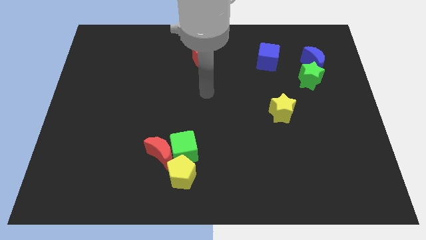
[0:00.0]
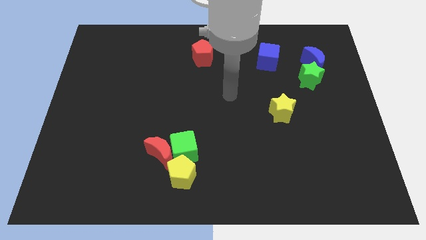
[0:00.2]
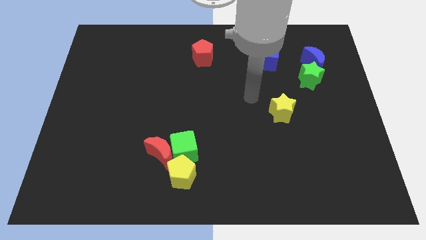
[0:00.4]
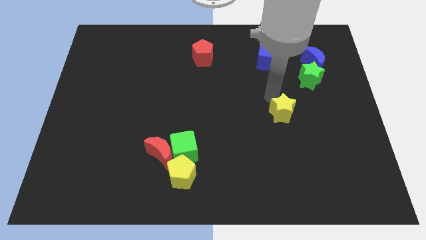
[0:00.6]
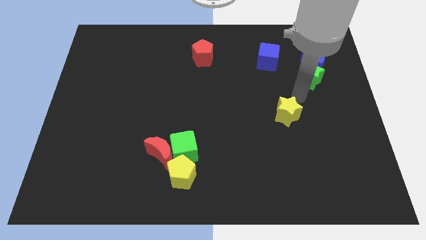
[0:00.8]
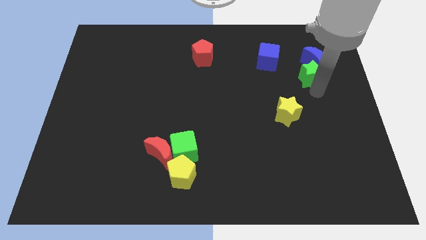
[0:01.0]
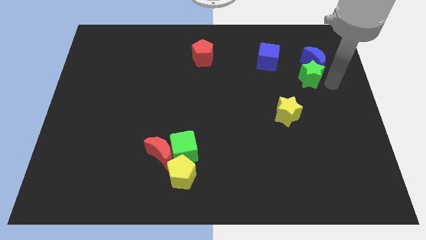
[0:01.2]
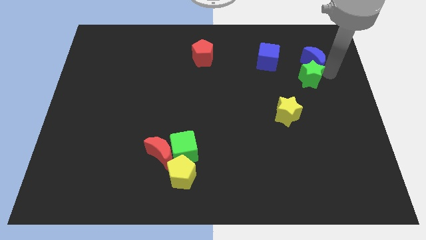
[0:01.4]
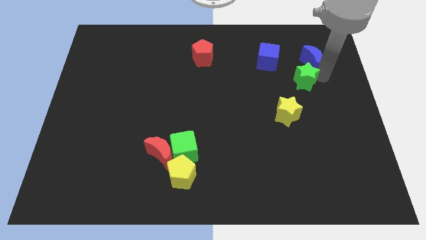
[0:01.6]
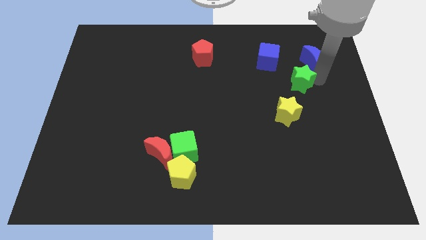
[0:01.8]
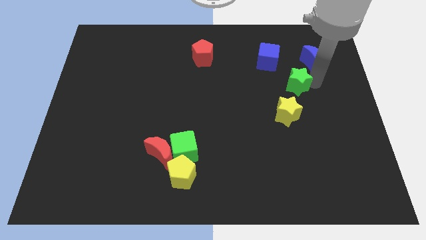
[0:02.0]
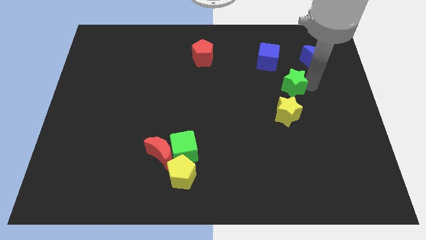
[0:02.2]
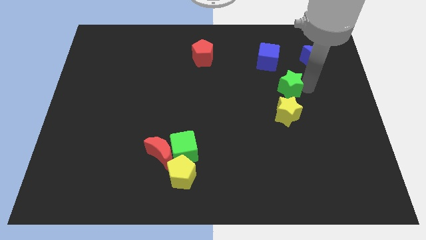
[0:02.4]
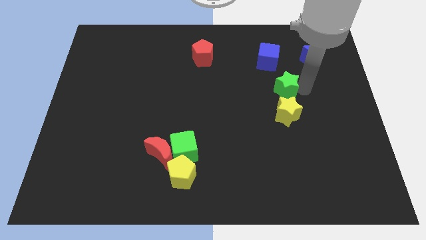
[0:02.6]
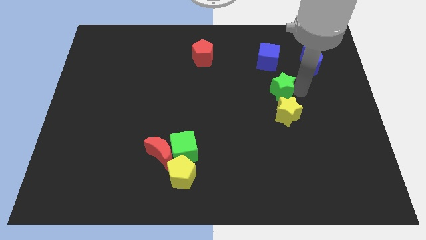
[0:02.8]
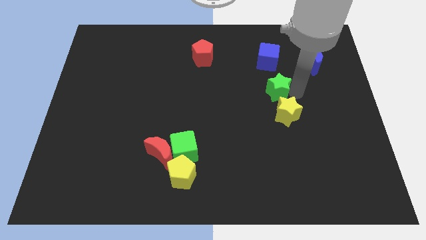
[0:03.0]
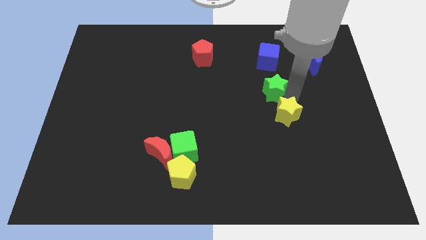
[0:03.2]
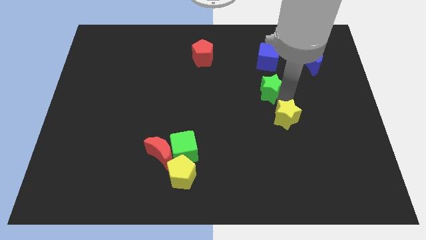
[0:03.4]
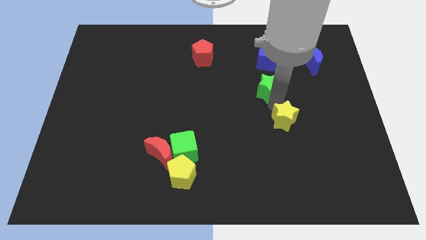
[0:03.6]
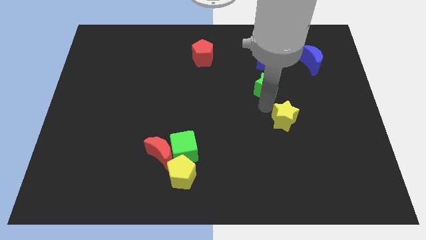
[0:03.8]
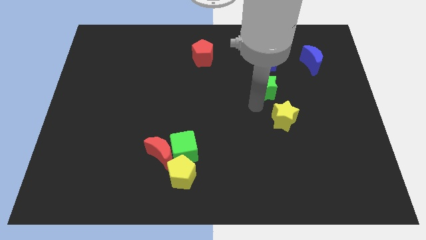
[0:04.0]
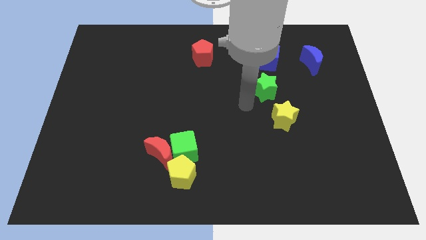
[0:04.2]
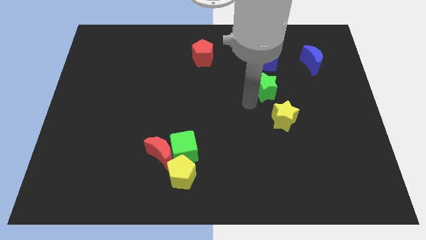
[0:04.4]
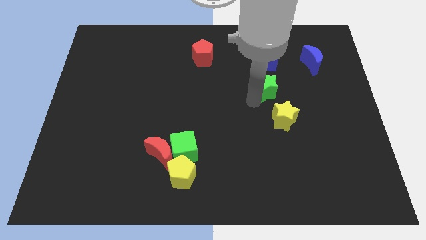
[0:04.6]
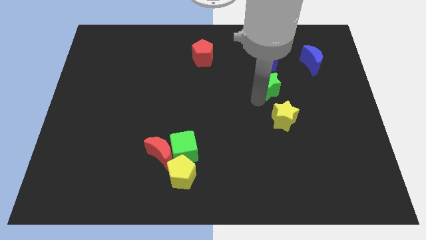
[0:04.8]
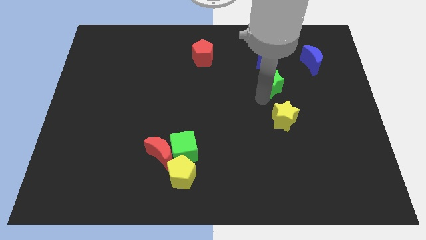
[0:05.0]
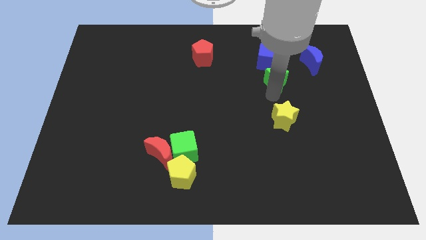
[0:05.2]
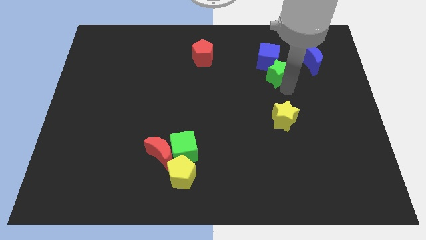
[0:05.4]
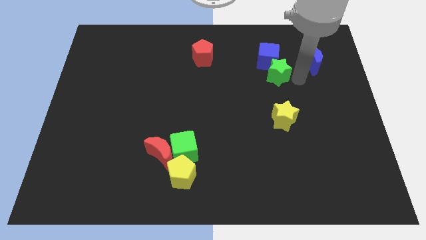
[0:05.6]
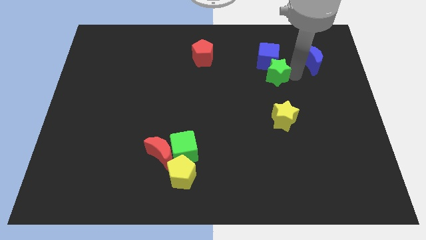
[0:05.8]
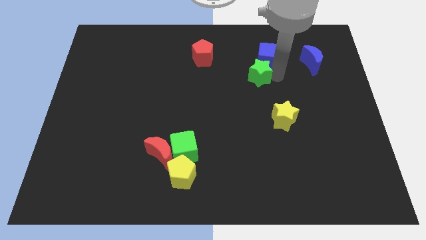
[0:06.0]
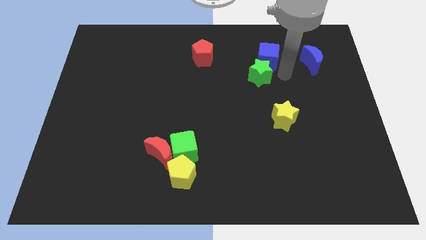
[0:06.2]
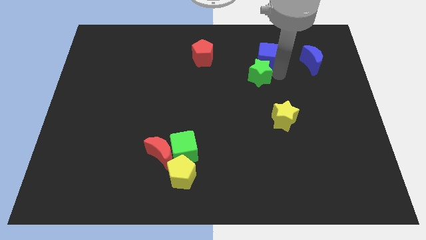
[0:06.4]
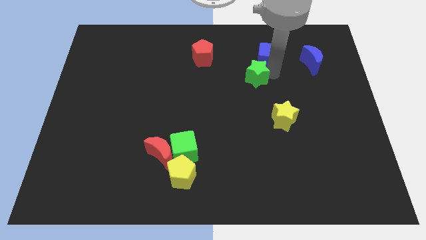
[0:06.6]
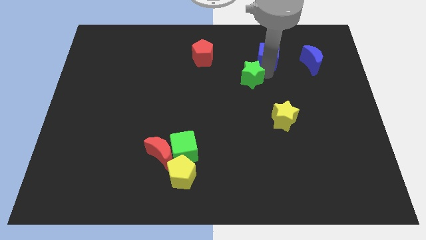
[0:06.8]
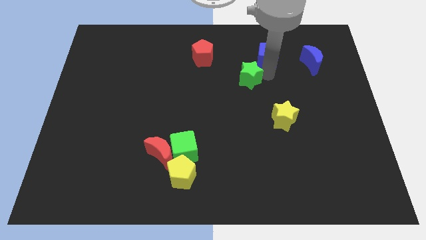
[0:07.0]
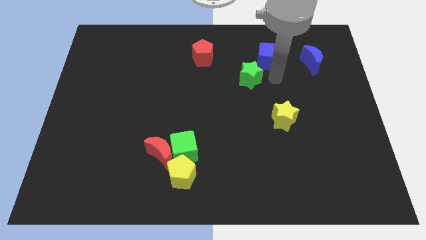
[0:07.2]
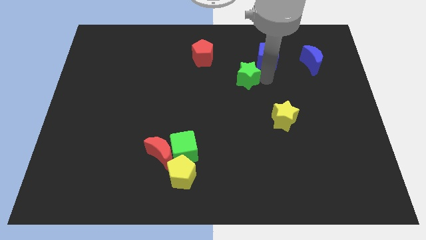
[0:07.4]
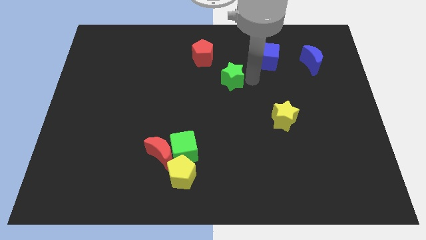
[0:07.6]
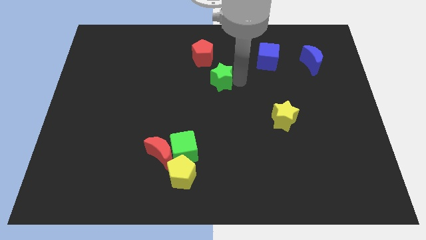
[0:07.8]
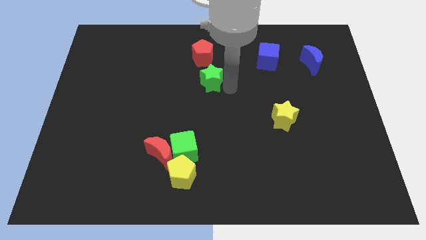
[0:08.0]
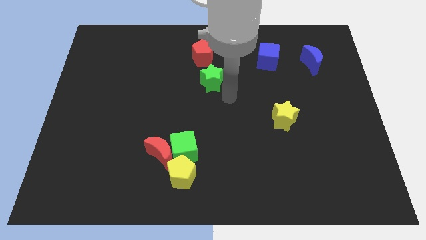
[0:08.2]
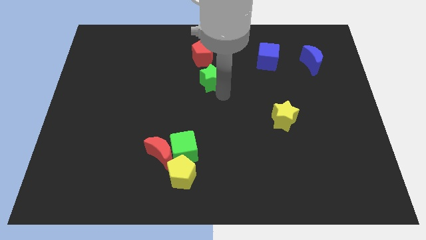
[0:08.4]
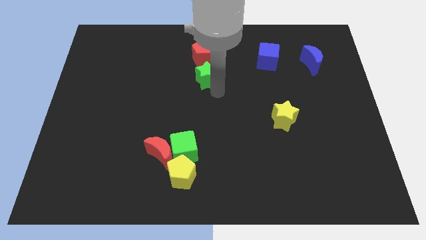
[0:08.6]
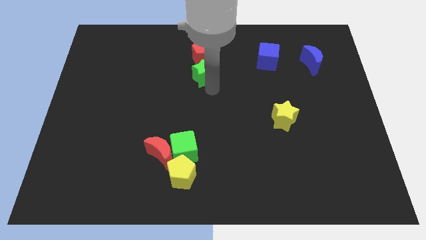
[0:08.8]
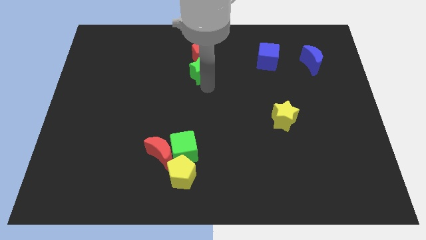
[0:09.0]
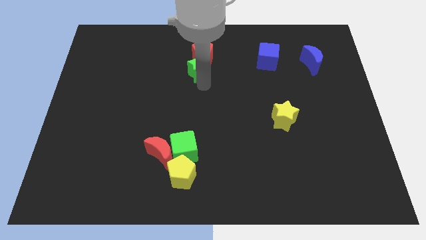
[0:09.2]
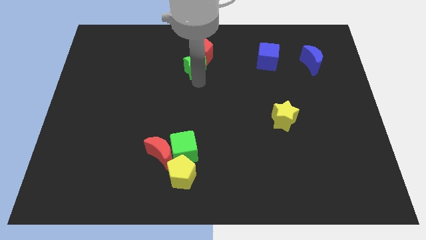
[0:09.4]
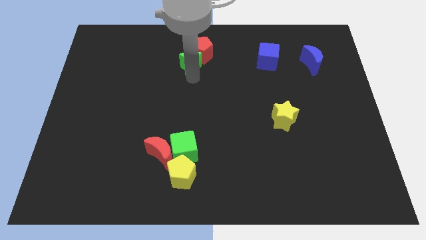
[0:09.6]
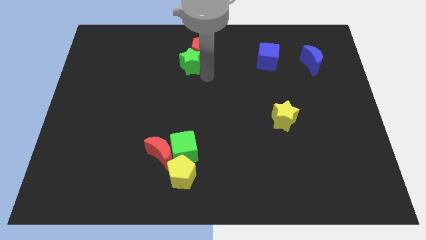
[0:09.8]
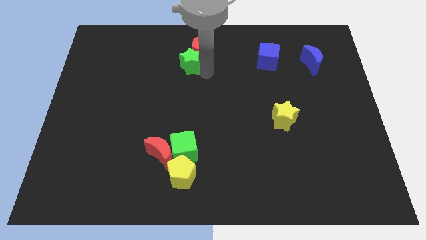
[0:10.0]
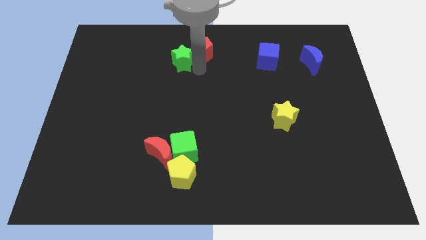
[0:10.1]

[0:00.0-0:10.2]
slide the green star to the left side of the red pentagon

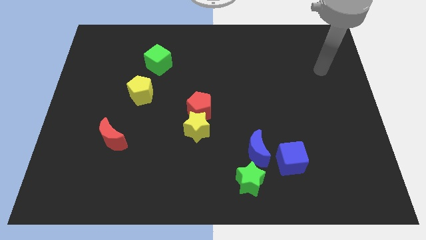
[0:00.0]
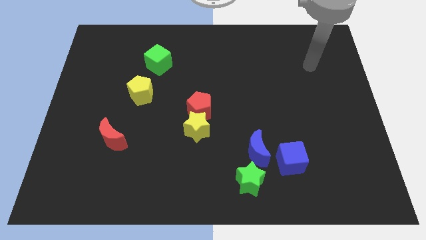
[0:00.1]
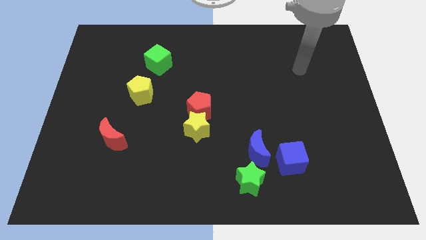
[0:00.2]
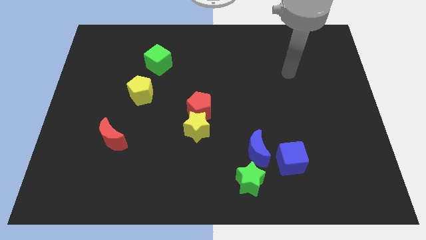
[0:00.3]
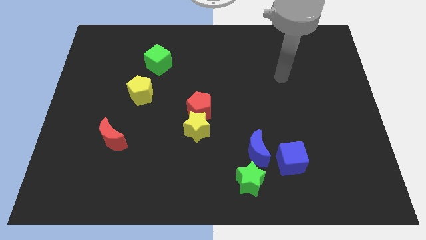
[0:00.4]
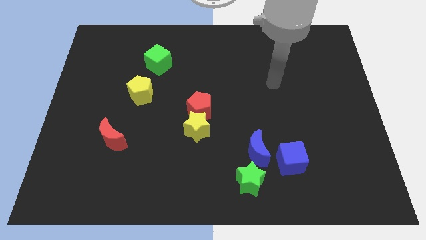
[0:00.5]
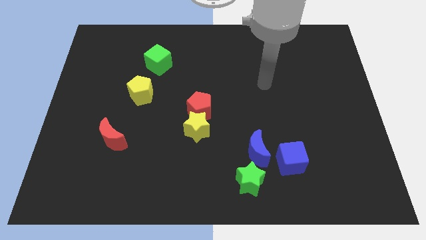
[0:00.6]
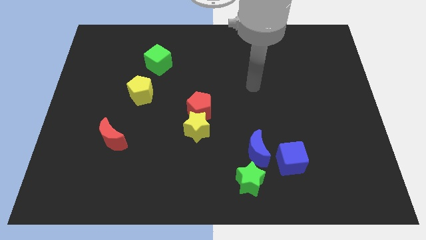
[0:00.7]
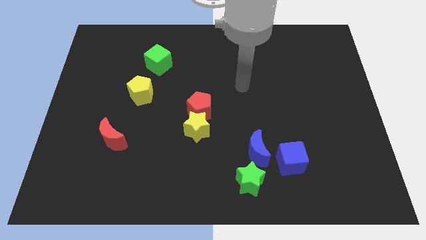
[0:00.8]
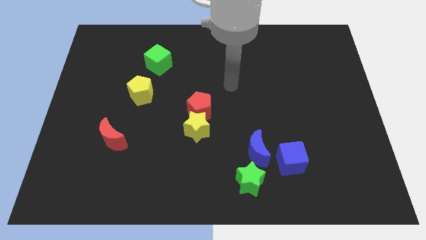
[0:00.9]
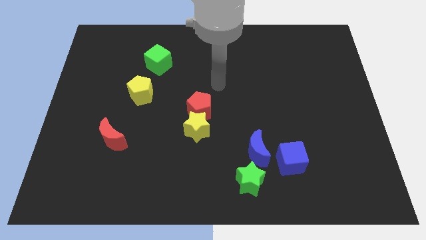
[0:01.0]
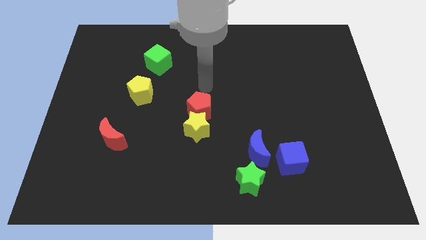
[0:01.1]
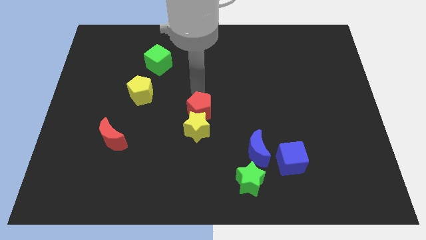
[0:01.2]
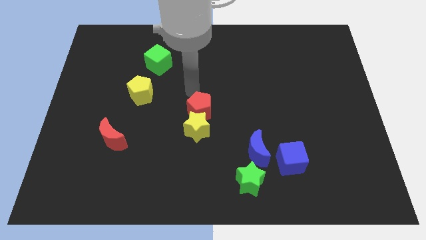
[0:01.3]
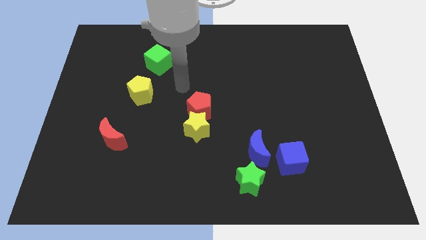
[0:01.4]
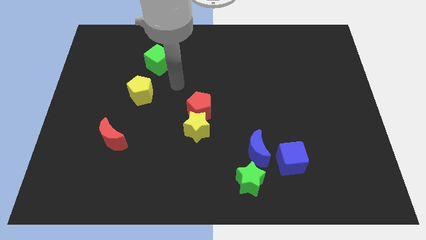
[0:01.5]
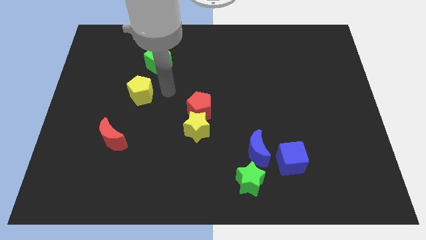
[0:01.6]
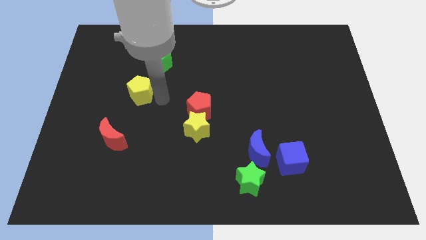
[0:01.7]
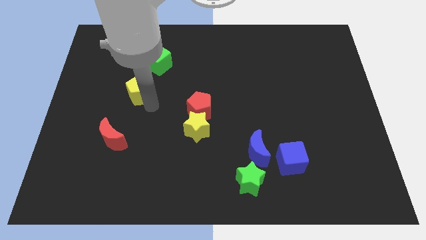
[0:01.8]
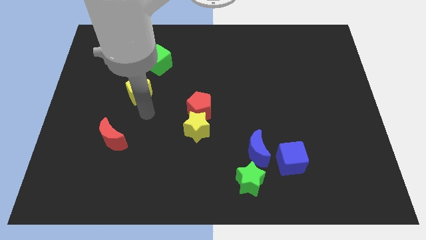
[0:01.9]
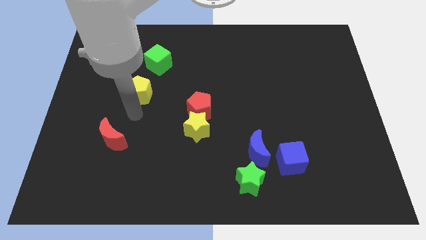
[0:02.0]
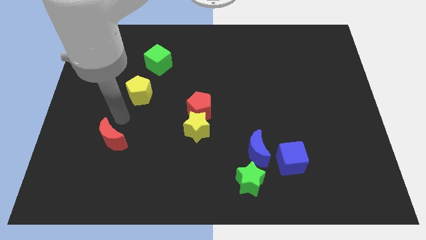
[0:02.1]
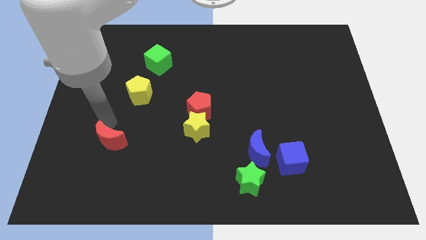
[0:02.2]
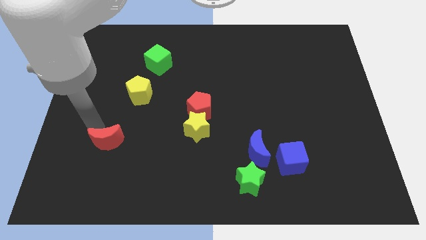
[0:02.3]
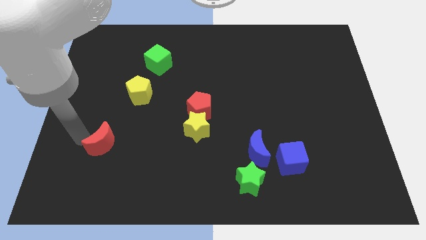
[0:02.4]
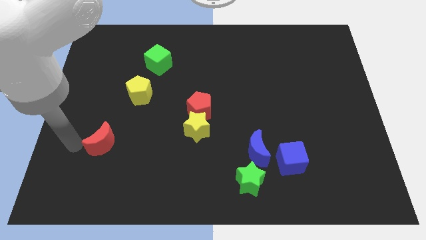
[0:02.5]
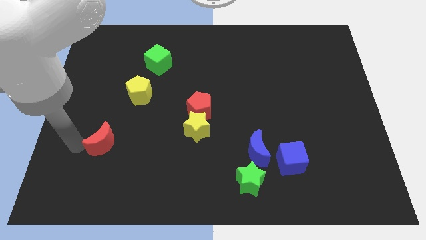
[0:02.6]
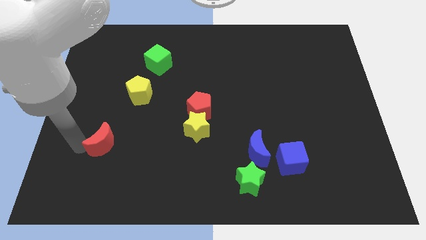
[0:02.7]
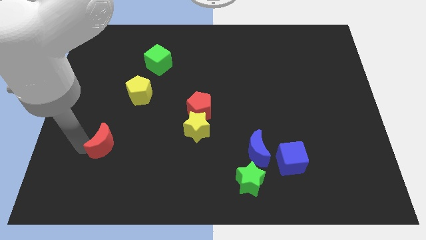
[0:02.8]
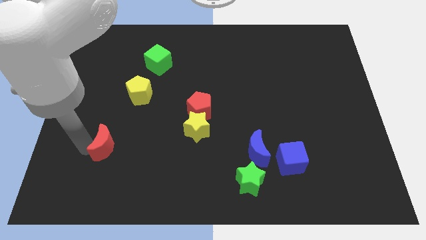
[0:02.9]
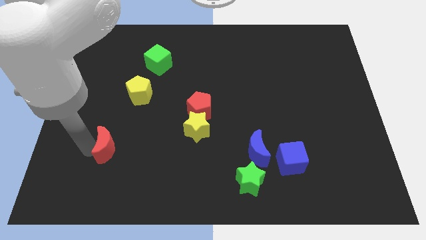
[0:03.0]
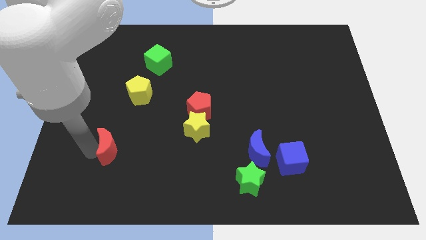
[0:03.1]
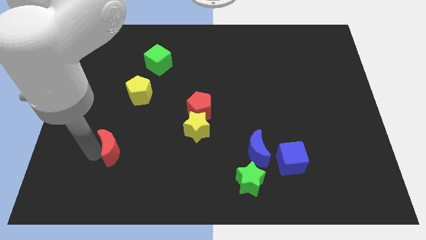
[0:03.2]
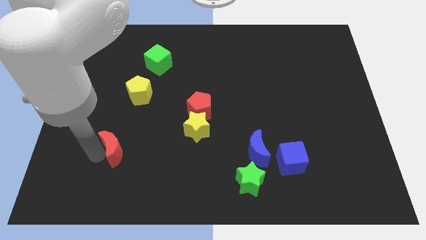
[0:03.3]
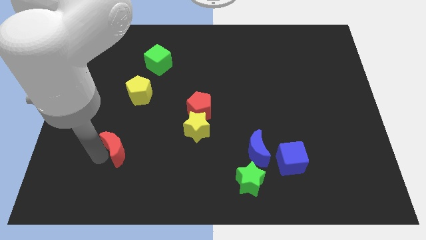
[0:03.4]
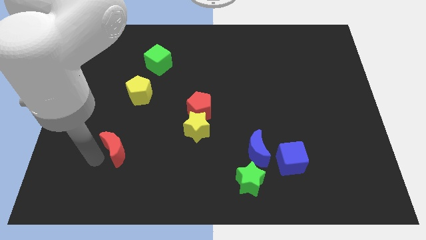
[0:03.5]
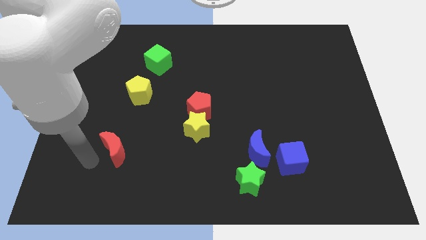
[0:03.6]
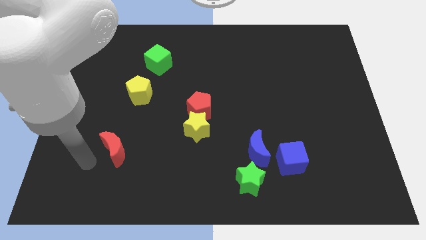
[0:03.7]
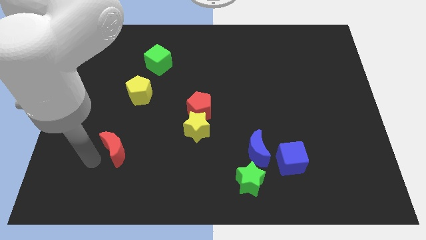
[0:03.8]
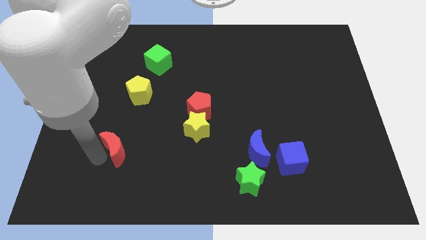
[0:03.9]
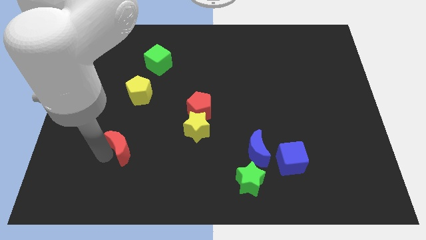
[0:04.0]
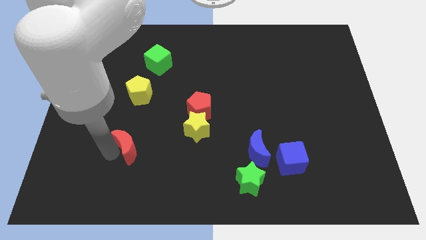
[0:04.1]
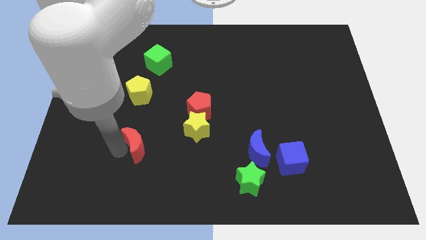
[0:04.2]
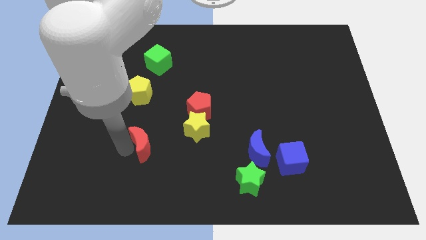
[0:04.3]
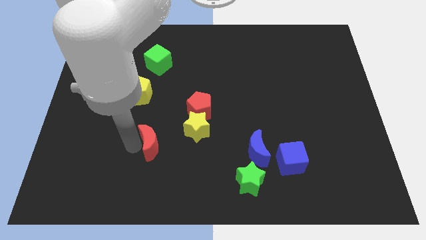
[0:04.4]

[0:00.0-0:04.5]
put the red moon diagonally down and to the left of the yellow star
